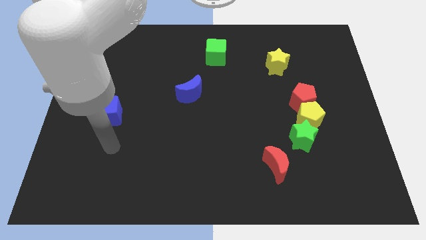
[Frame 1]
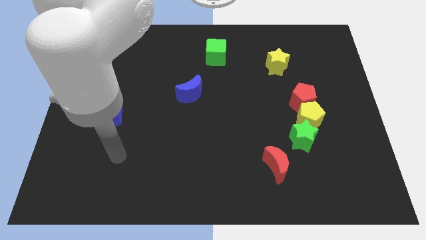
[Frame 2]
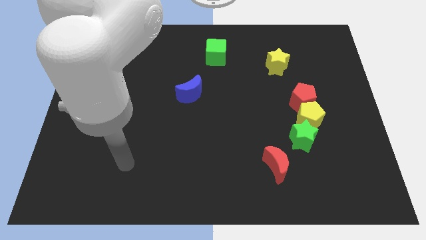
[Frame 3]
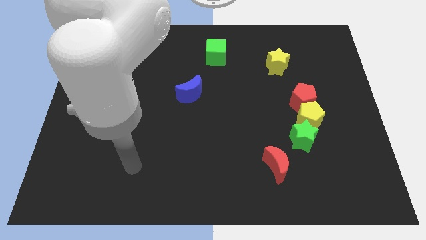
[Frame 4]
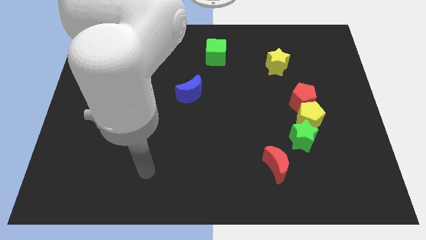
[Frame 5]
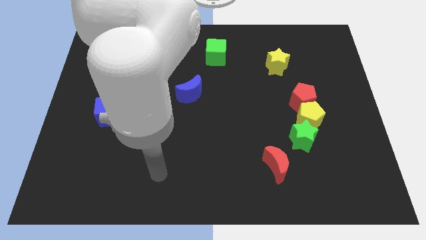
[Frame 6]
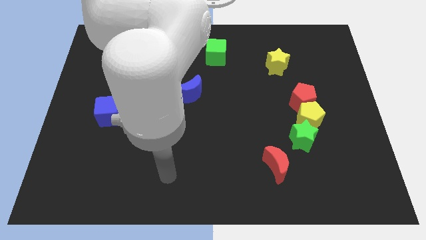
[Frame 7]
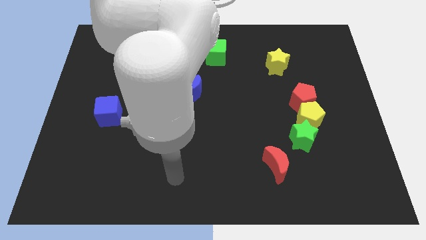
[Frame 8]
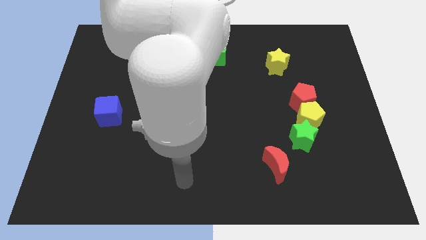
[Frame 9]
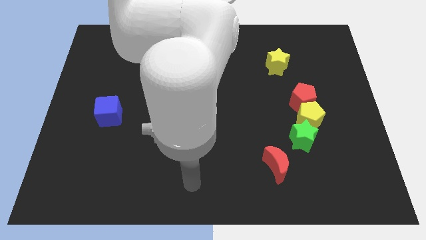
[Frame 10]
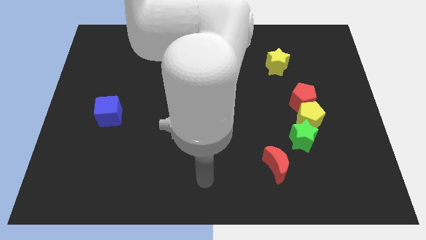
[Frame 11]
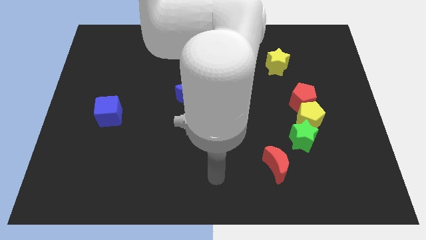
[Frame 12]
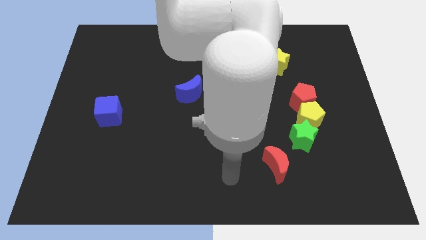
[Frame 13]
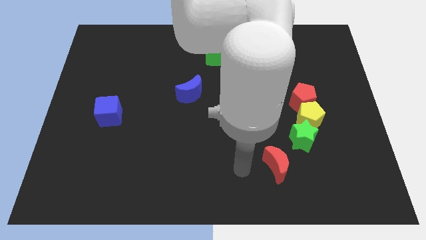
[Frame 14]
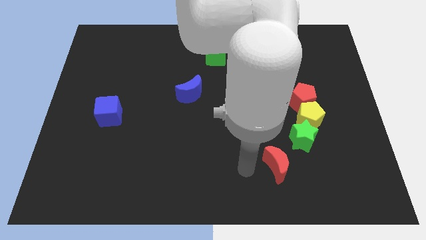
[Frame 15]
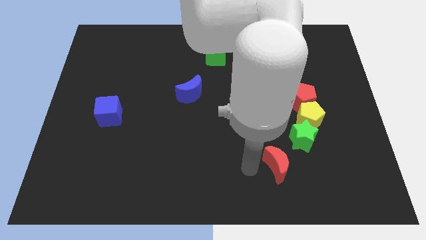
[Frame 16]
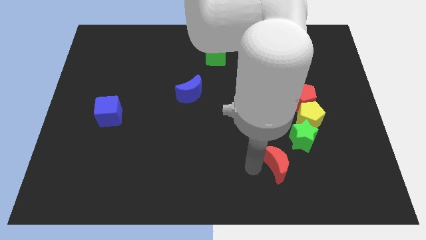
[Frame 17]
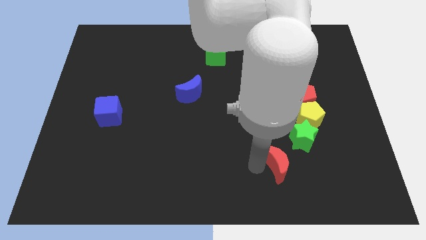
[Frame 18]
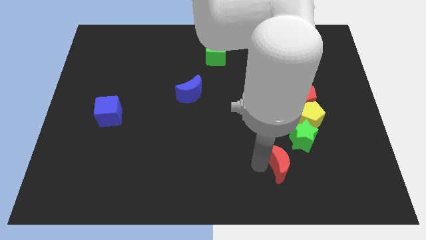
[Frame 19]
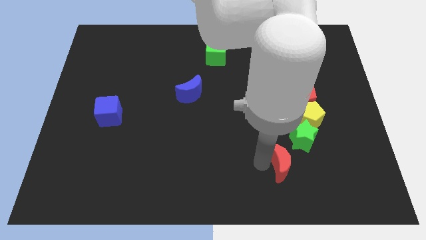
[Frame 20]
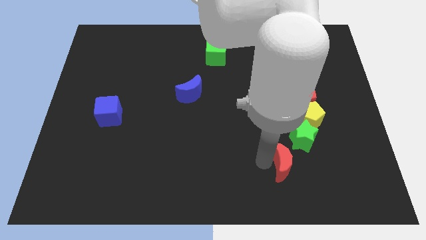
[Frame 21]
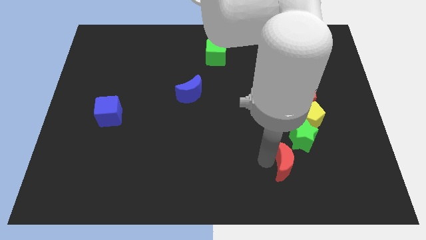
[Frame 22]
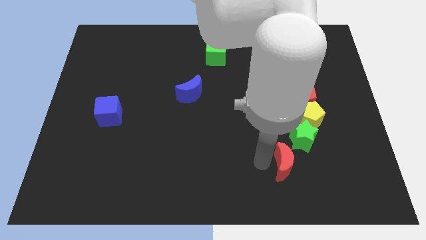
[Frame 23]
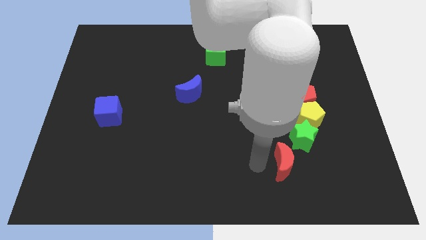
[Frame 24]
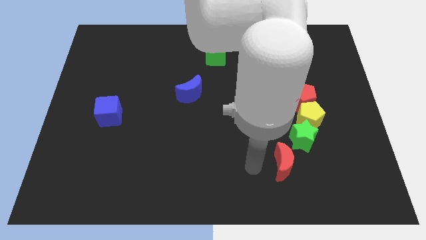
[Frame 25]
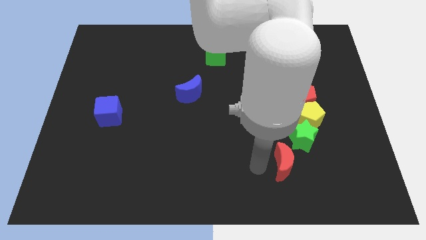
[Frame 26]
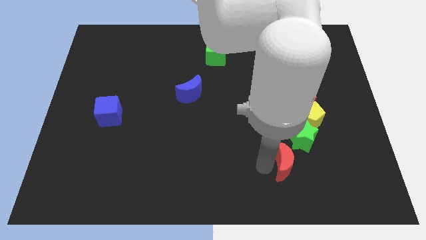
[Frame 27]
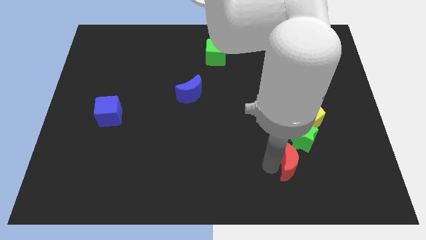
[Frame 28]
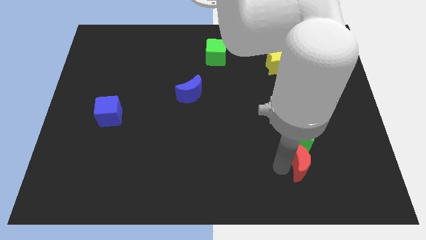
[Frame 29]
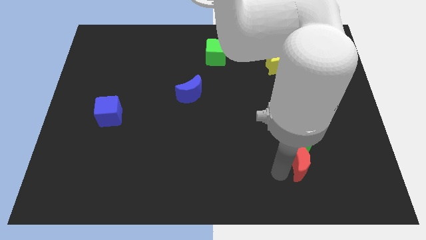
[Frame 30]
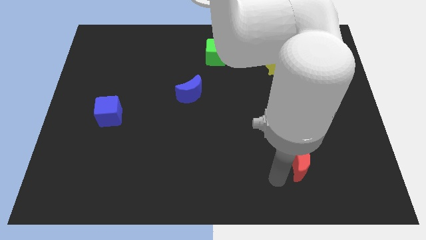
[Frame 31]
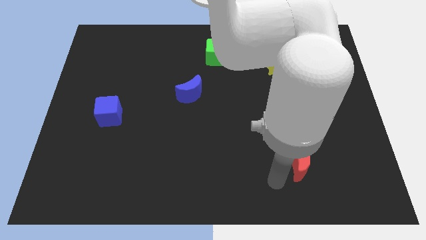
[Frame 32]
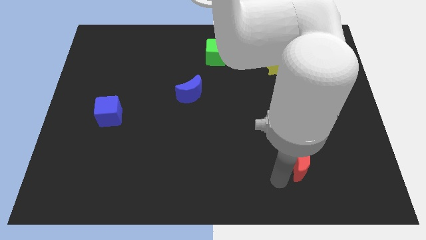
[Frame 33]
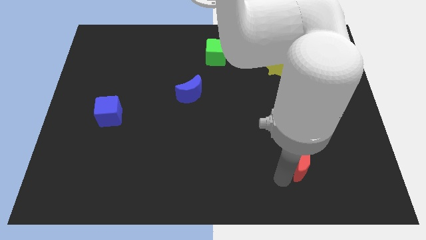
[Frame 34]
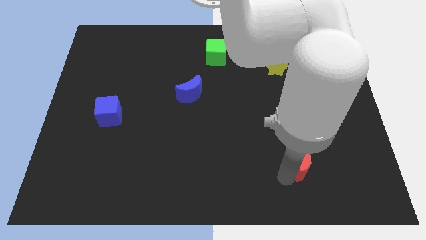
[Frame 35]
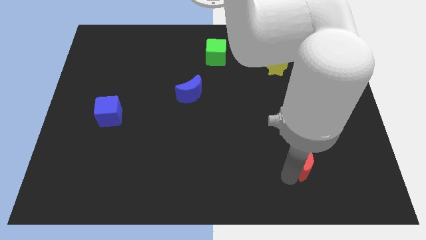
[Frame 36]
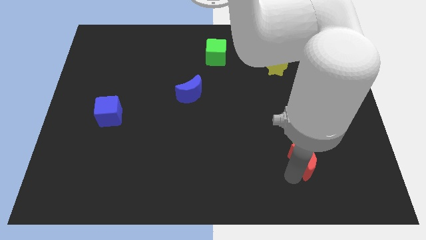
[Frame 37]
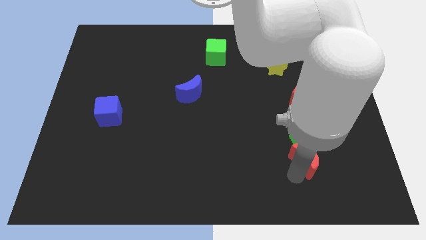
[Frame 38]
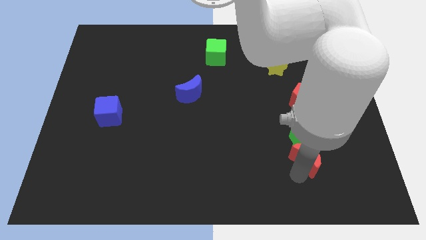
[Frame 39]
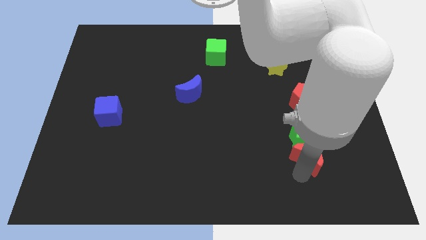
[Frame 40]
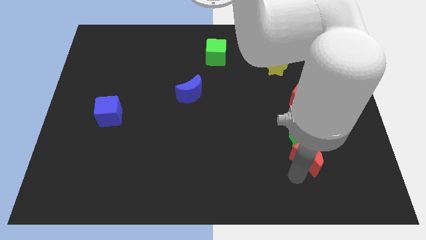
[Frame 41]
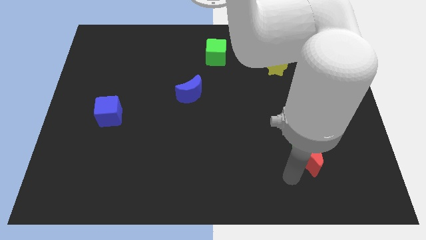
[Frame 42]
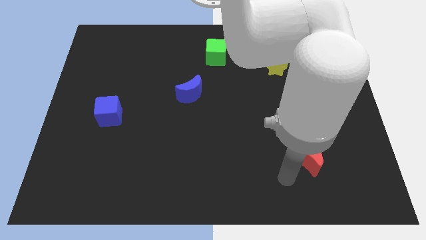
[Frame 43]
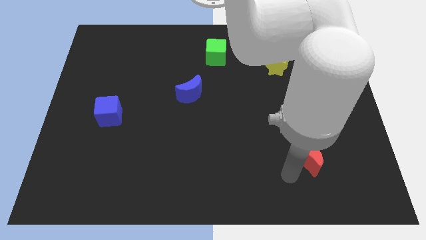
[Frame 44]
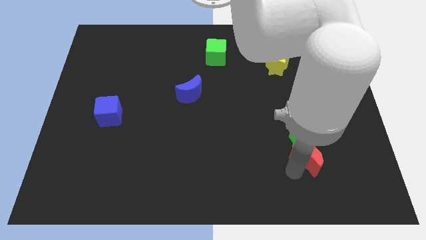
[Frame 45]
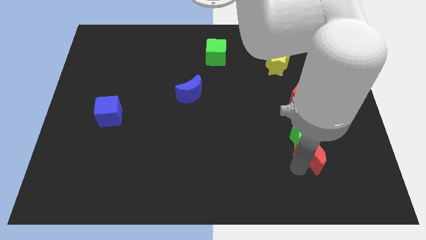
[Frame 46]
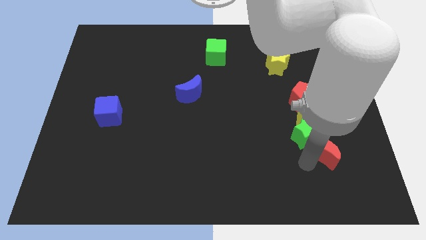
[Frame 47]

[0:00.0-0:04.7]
slide the red moon a bit diagonally up and to the right

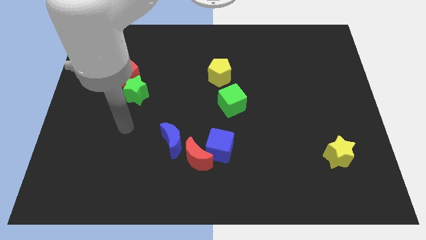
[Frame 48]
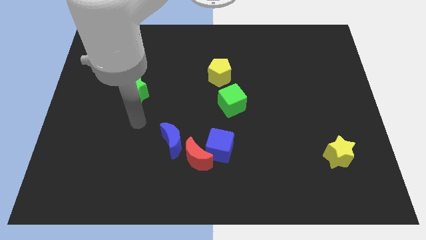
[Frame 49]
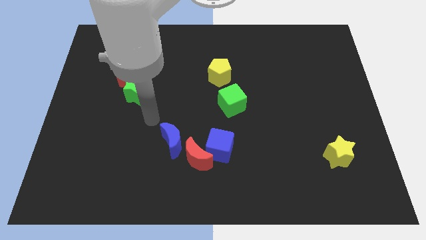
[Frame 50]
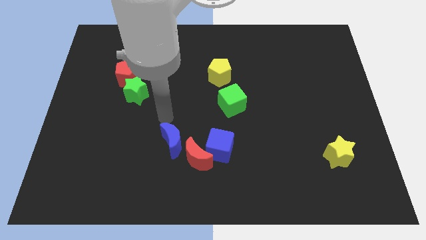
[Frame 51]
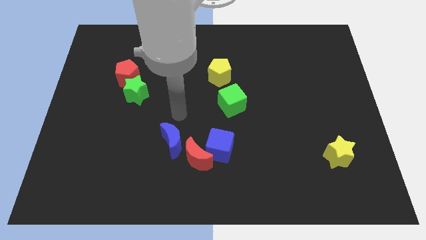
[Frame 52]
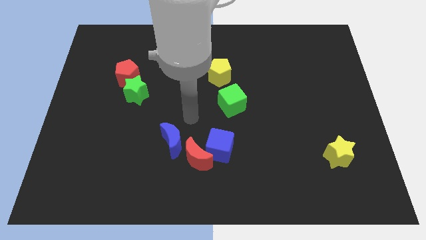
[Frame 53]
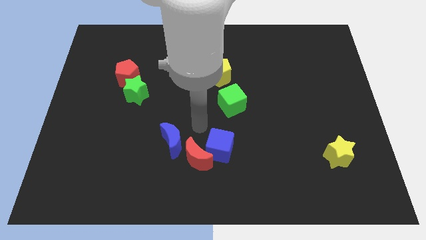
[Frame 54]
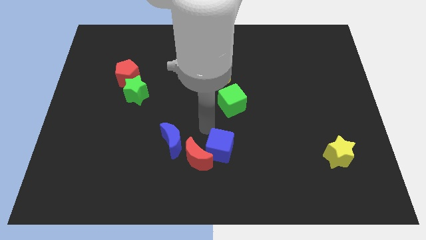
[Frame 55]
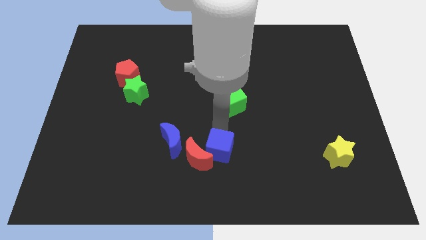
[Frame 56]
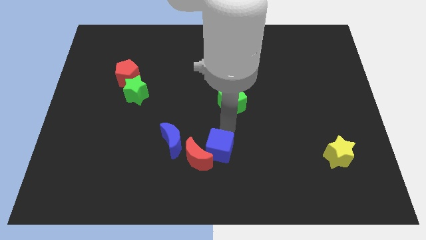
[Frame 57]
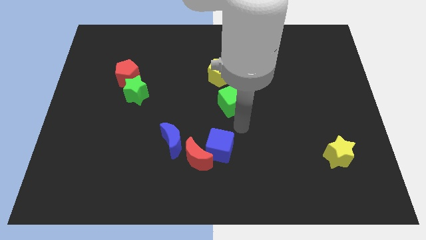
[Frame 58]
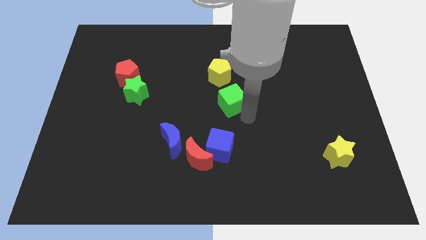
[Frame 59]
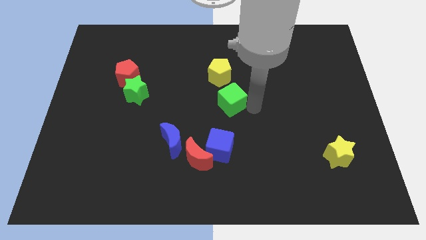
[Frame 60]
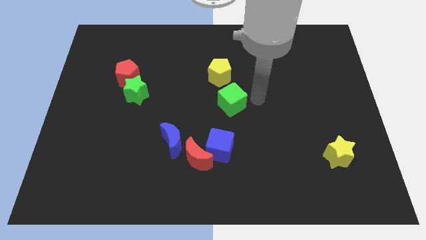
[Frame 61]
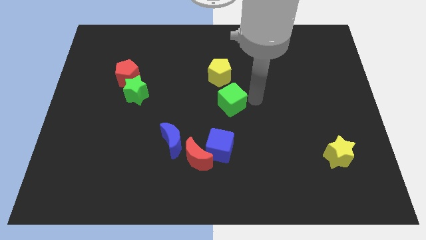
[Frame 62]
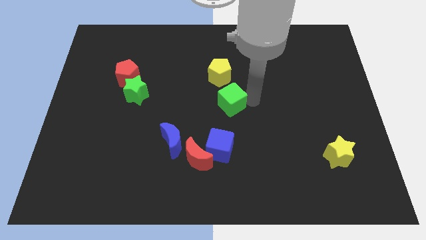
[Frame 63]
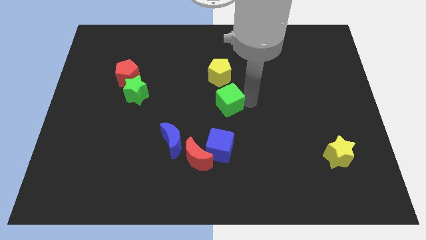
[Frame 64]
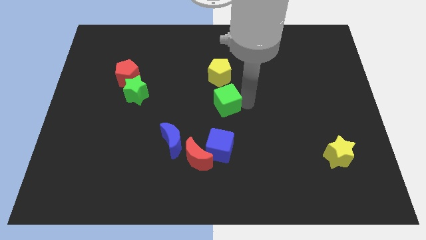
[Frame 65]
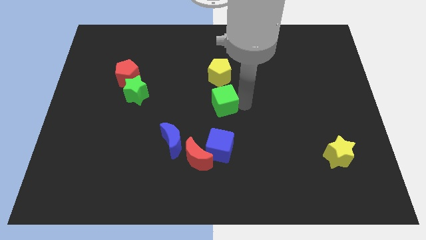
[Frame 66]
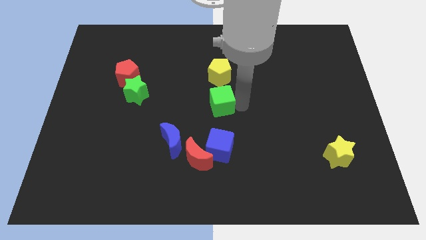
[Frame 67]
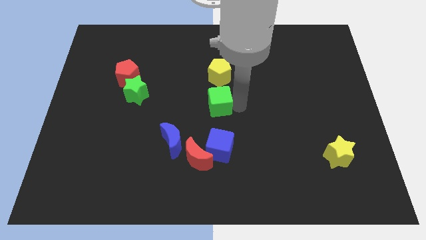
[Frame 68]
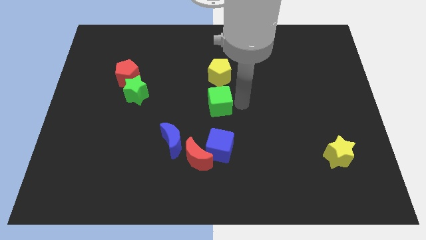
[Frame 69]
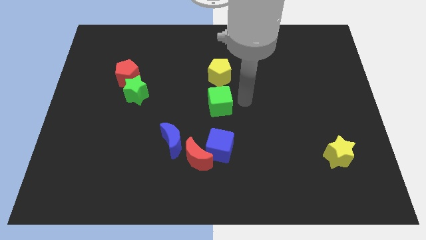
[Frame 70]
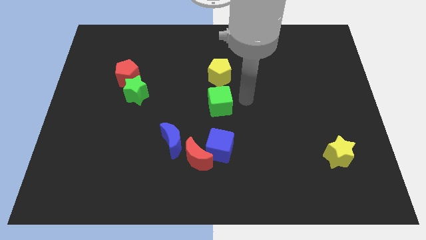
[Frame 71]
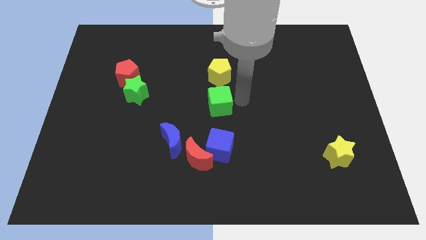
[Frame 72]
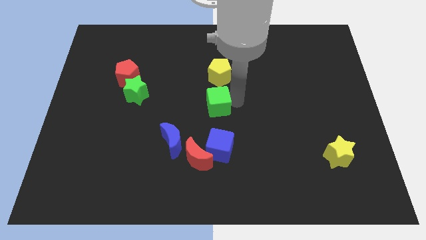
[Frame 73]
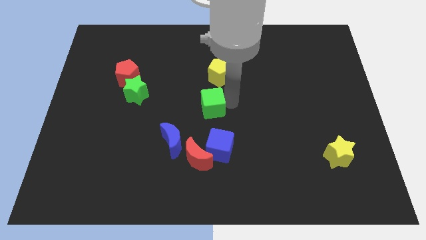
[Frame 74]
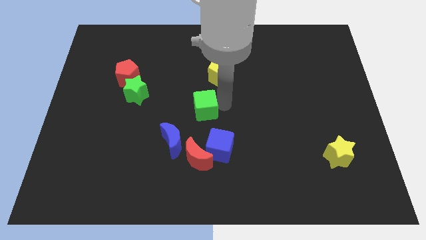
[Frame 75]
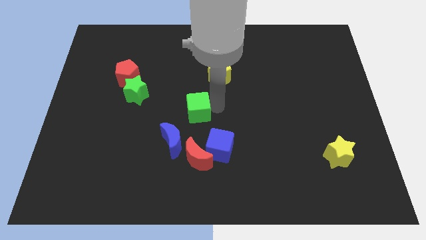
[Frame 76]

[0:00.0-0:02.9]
move the green cube left a bit

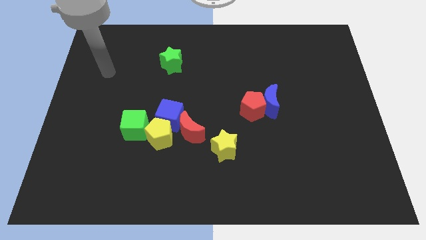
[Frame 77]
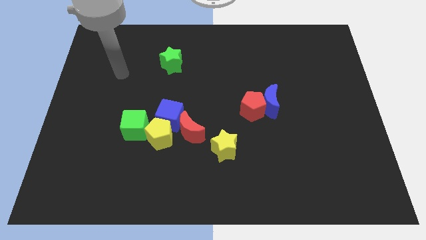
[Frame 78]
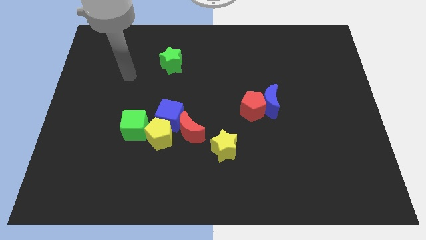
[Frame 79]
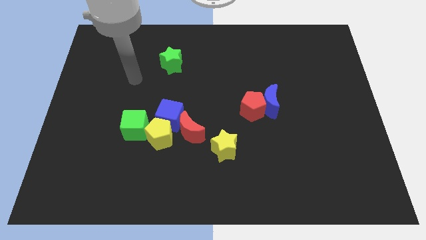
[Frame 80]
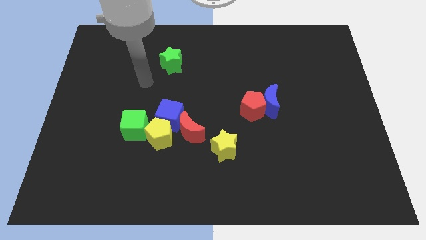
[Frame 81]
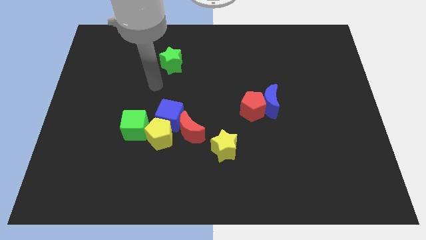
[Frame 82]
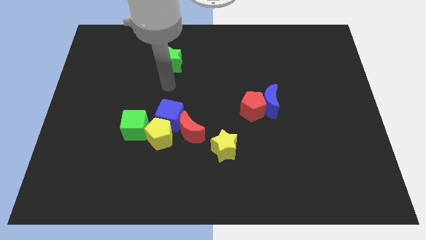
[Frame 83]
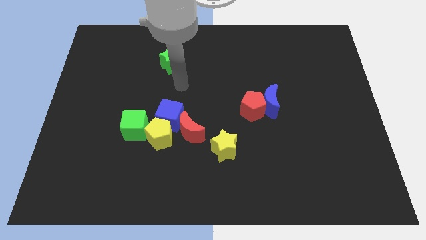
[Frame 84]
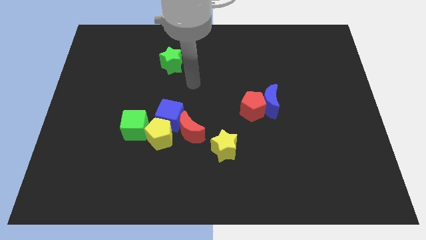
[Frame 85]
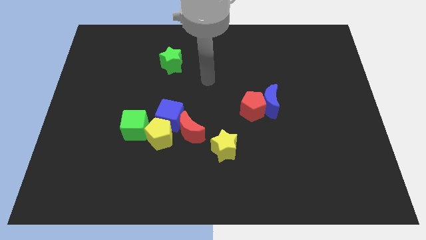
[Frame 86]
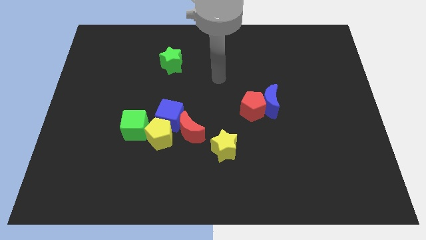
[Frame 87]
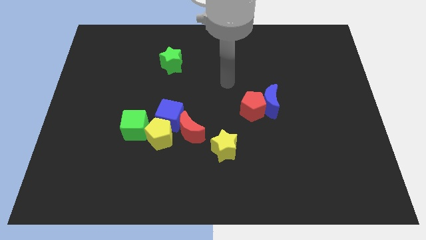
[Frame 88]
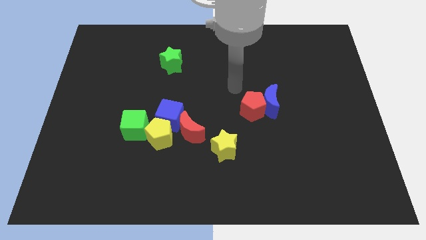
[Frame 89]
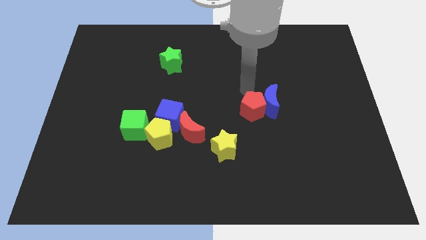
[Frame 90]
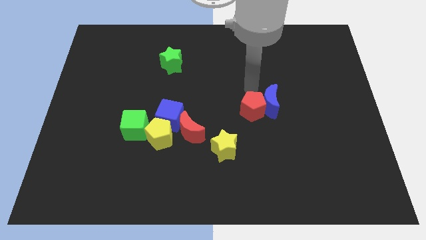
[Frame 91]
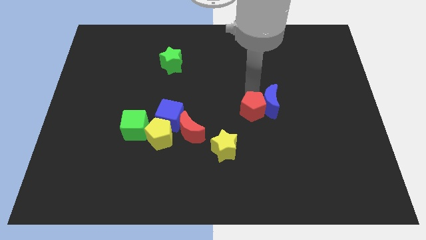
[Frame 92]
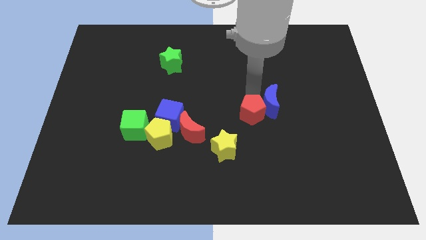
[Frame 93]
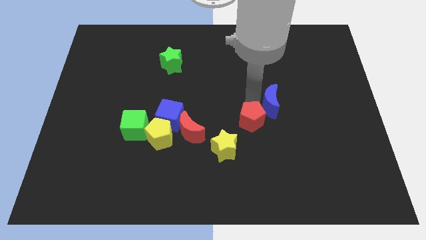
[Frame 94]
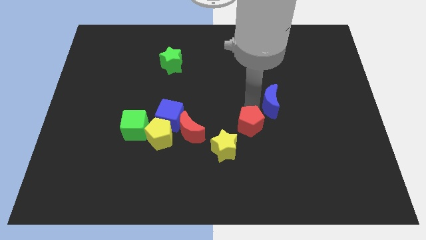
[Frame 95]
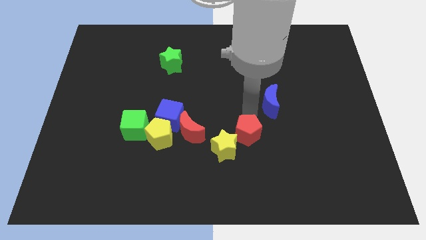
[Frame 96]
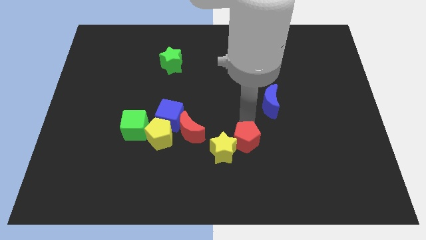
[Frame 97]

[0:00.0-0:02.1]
push the red pentagon downwards slightly
